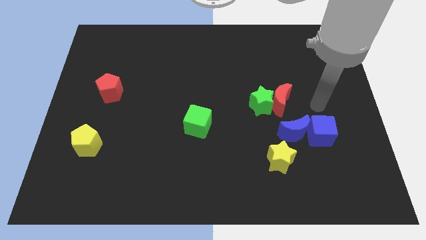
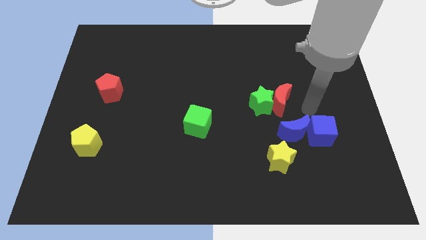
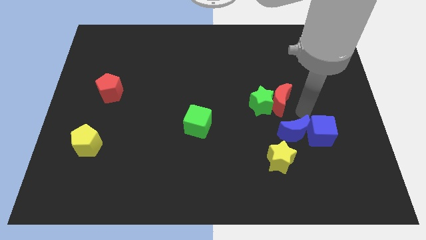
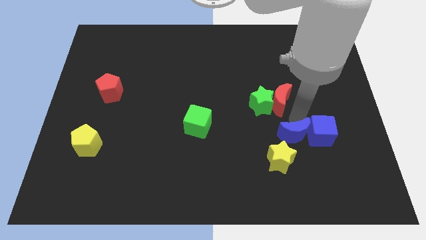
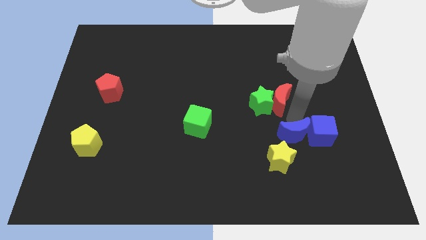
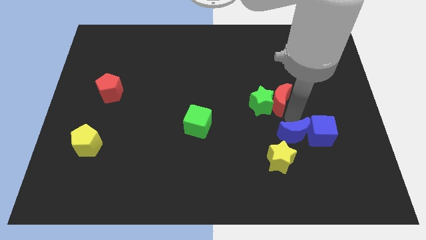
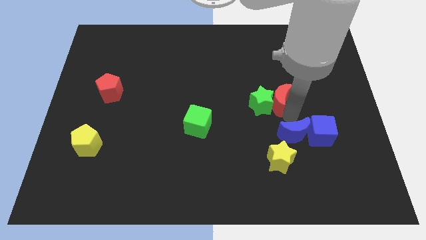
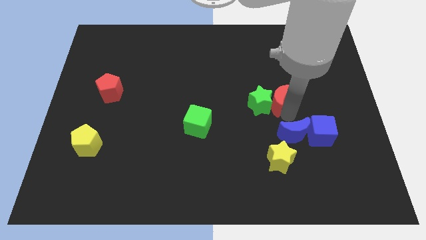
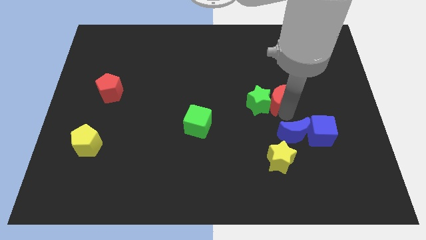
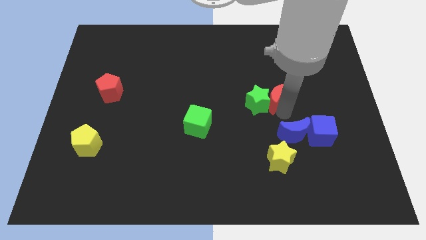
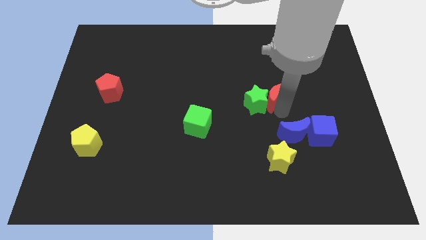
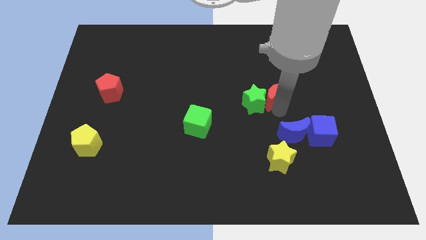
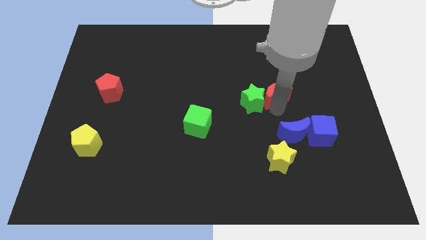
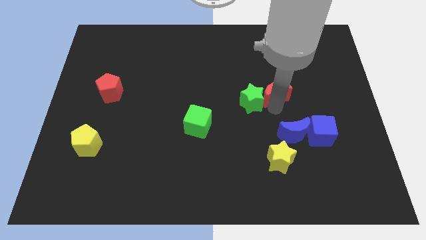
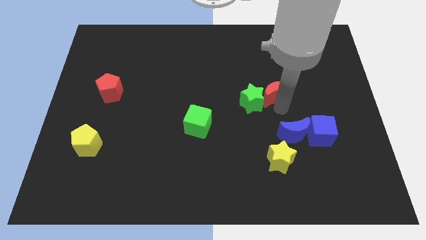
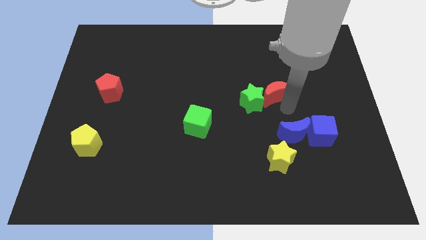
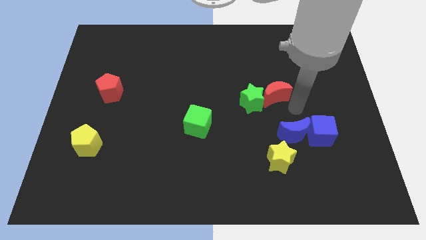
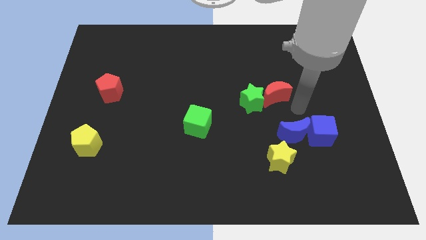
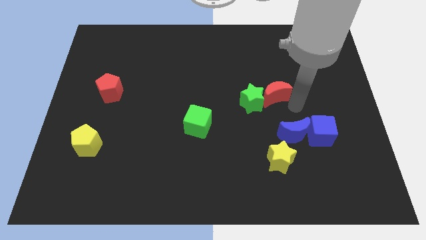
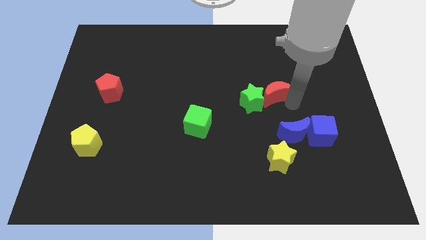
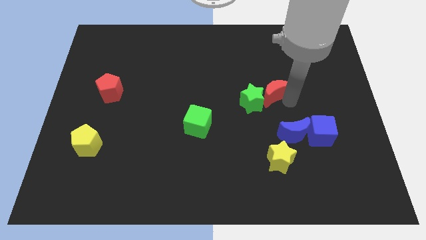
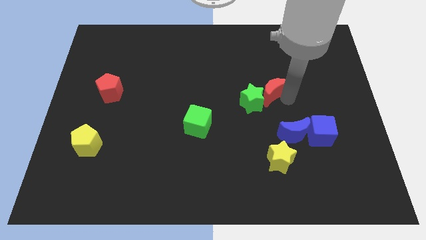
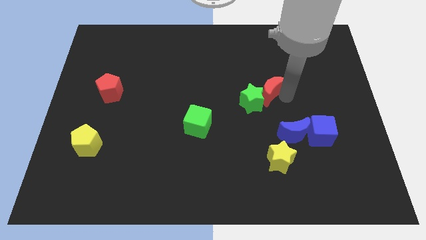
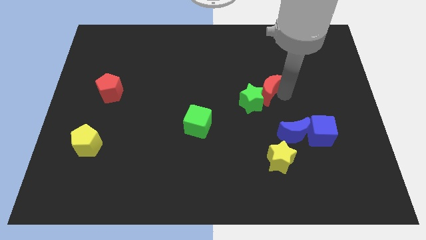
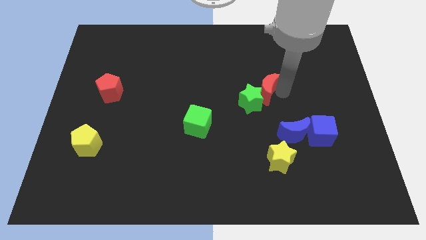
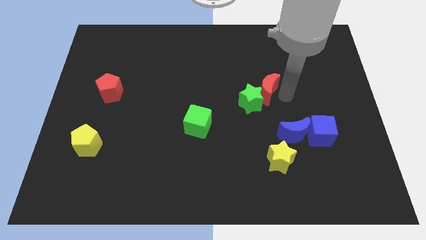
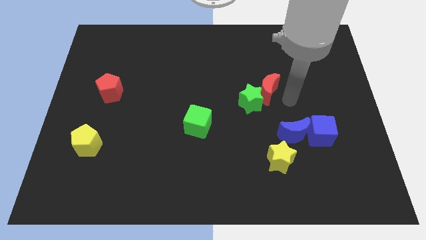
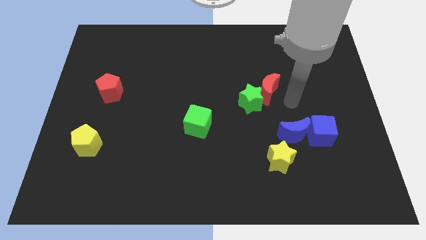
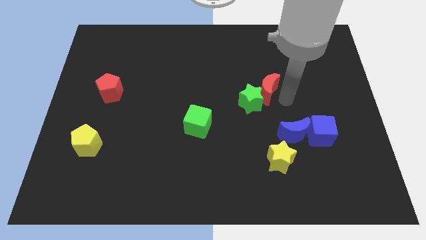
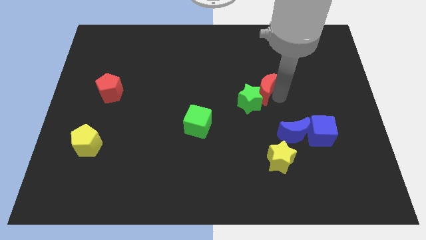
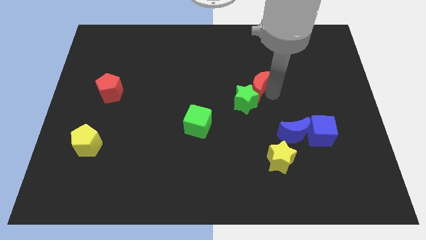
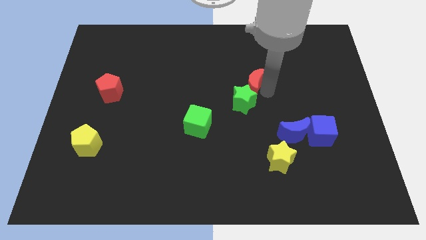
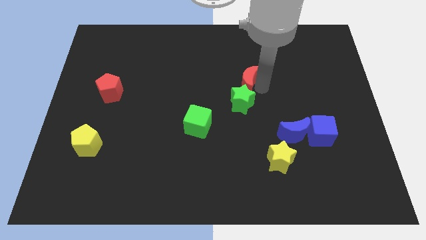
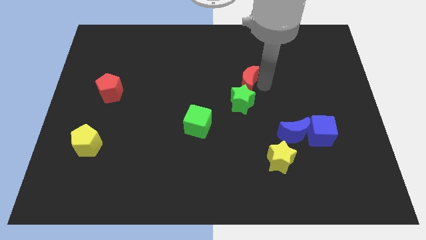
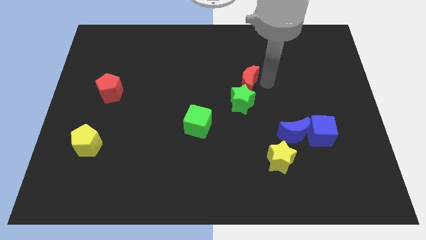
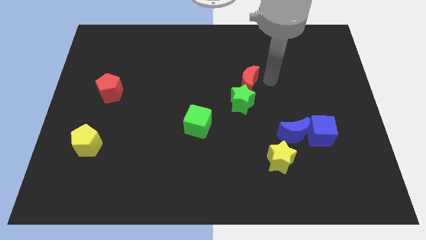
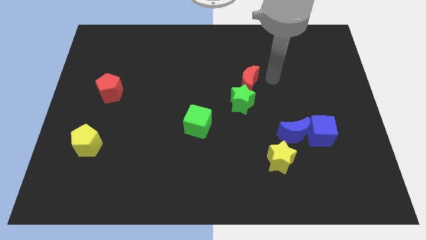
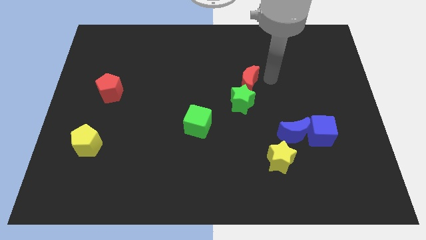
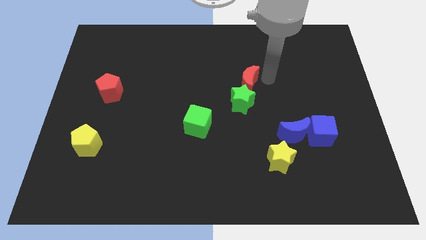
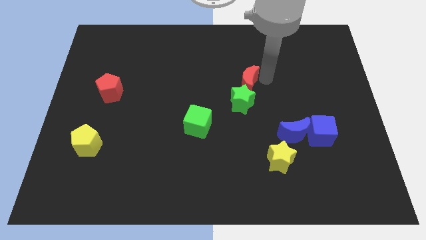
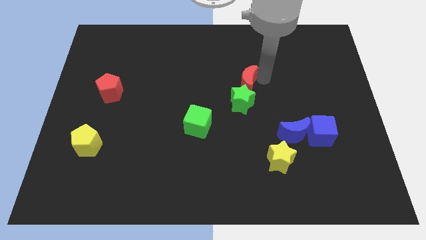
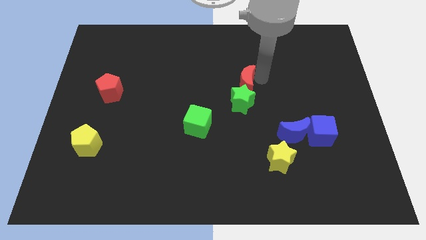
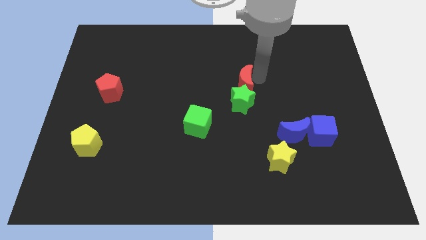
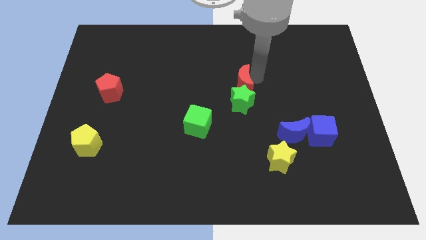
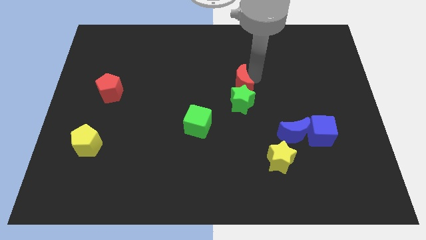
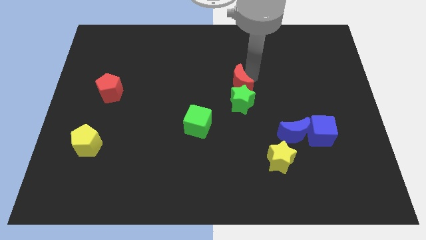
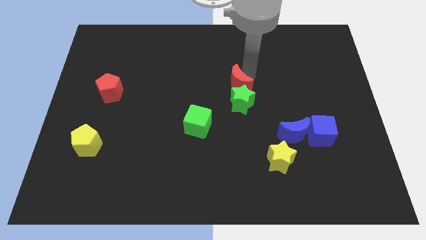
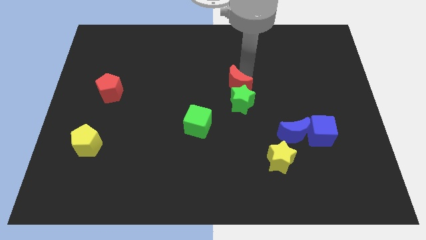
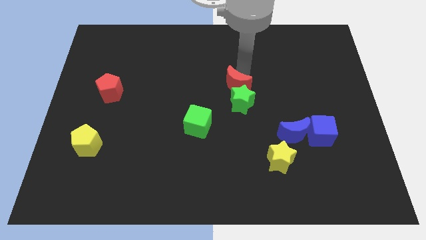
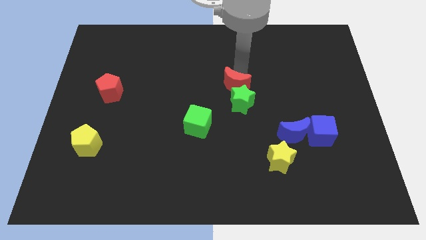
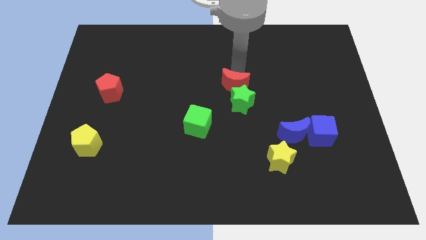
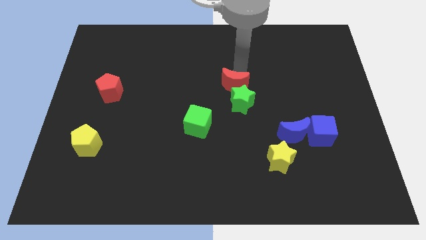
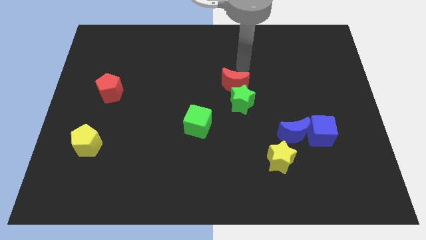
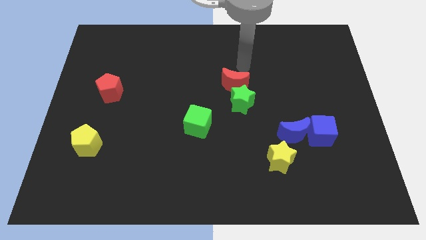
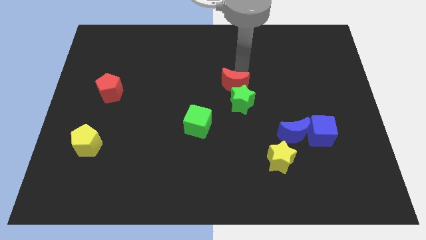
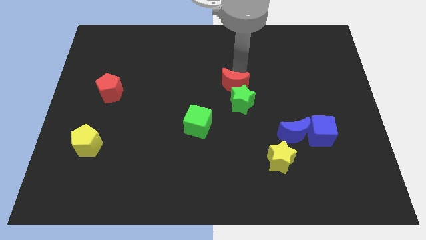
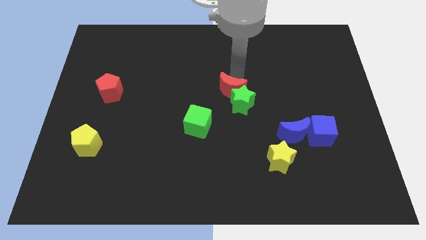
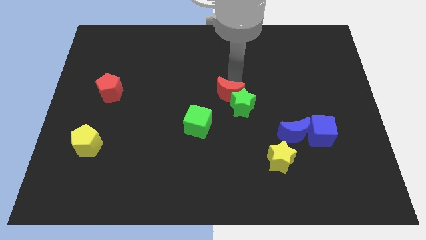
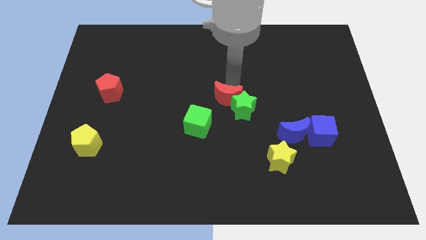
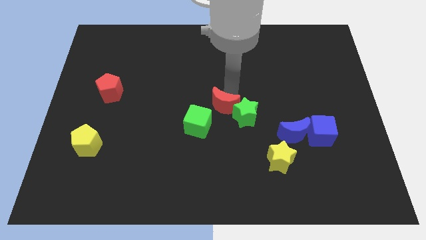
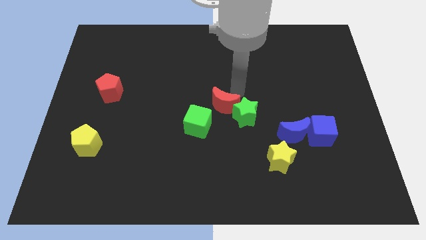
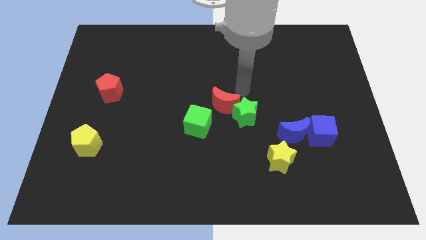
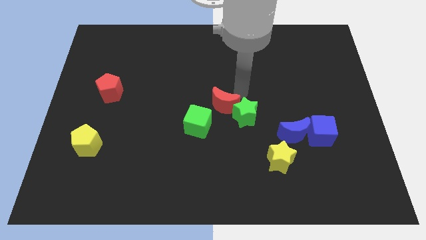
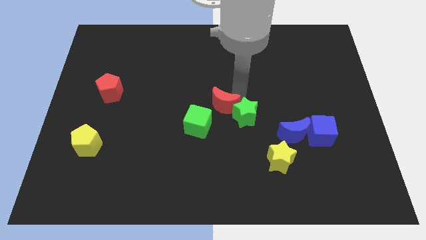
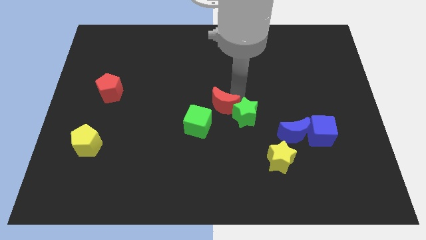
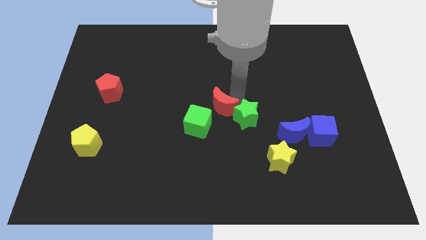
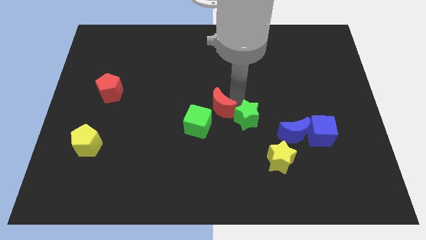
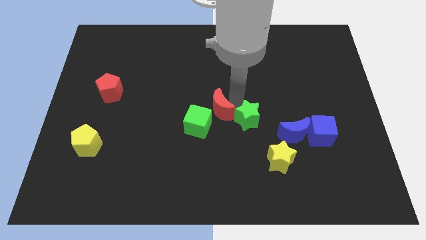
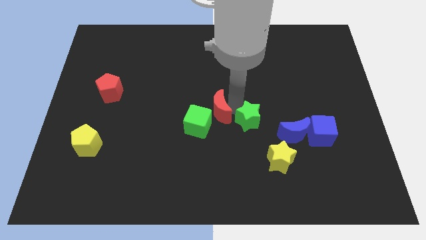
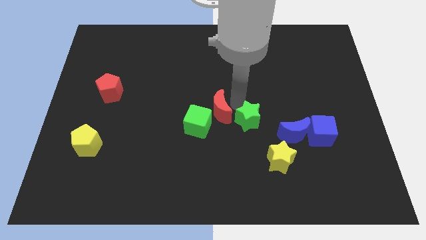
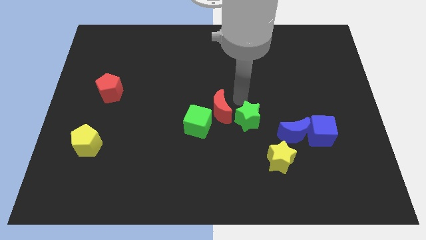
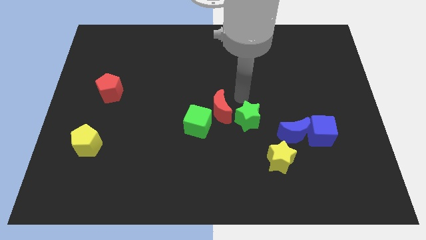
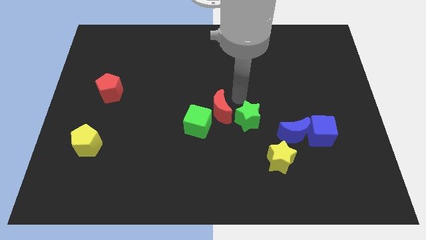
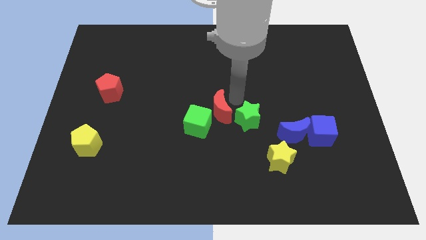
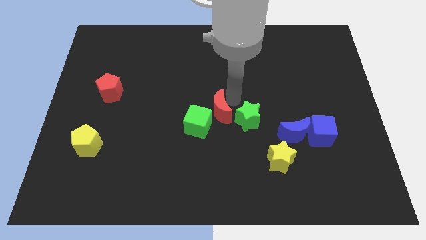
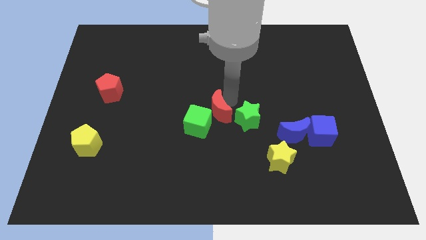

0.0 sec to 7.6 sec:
push the red moon next to the green cube
